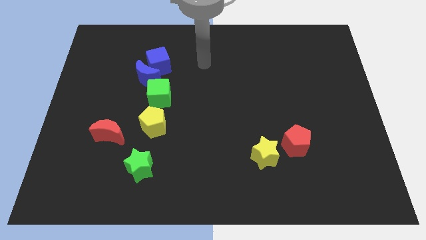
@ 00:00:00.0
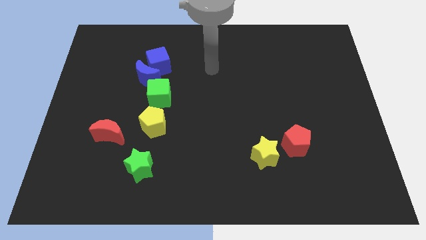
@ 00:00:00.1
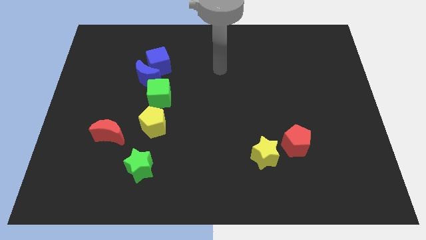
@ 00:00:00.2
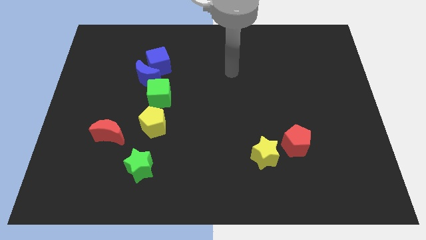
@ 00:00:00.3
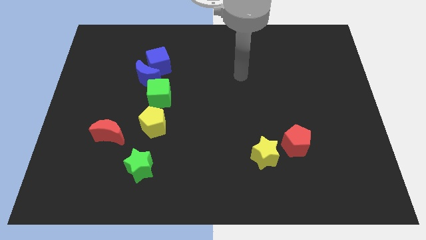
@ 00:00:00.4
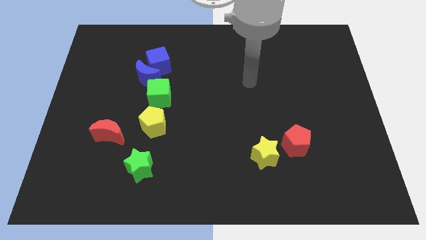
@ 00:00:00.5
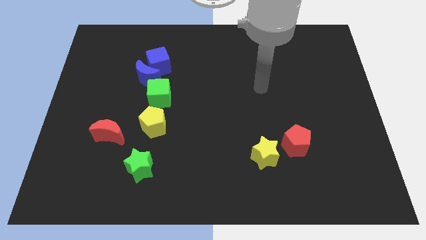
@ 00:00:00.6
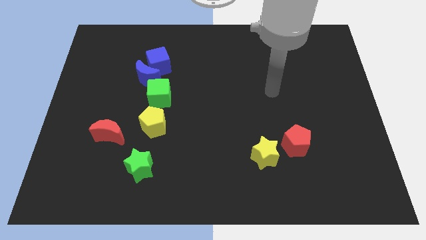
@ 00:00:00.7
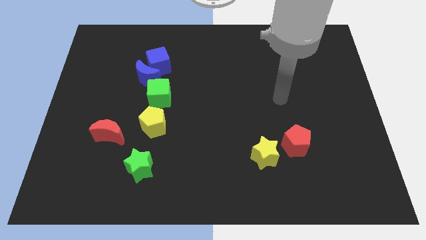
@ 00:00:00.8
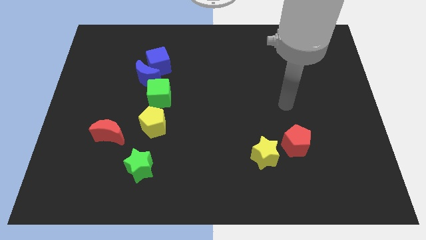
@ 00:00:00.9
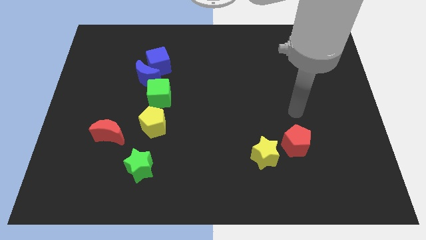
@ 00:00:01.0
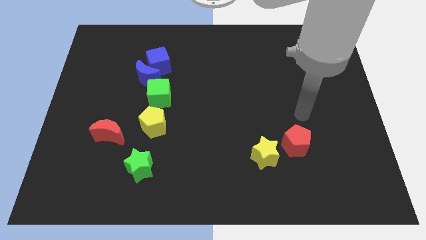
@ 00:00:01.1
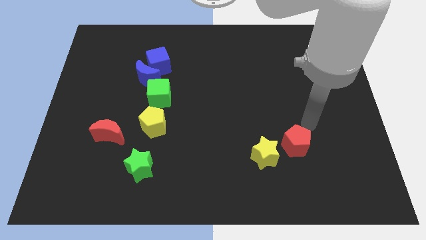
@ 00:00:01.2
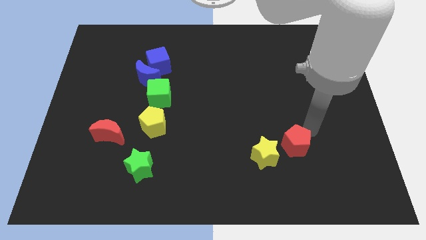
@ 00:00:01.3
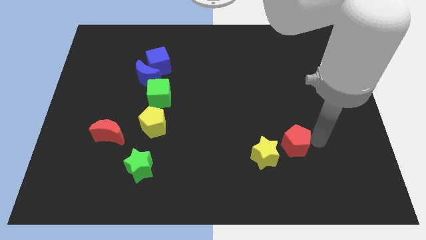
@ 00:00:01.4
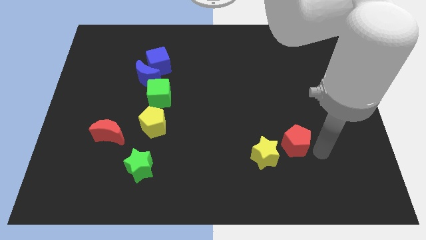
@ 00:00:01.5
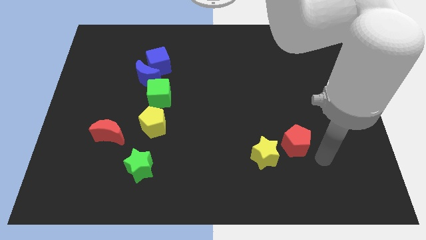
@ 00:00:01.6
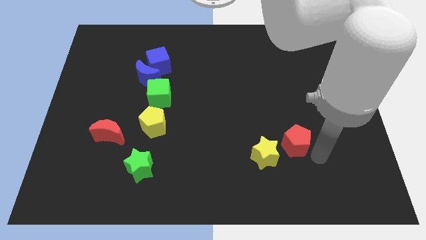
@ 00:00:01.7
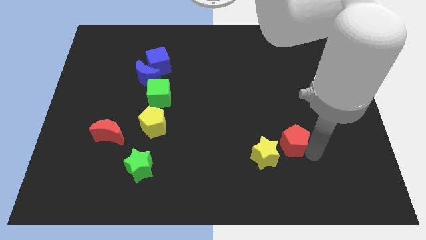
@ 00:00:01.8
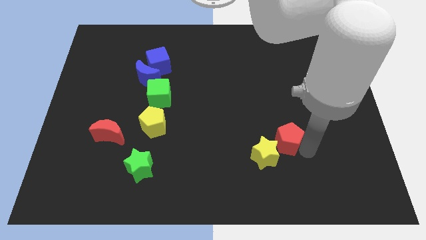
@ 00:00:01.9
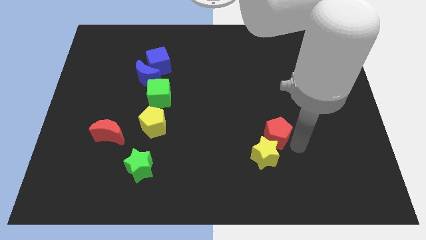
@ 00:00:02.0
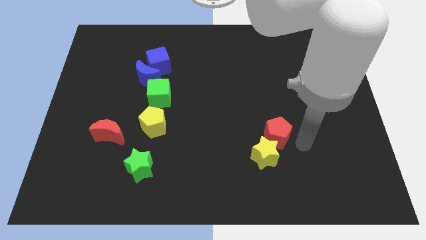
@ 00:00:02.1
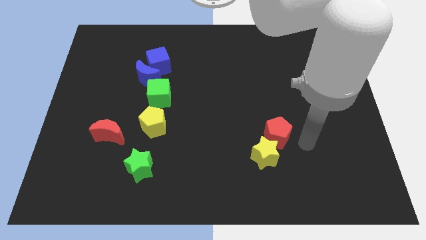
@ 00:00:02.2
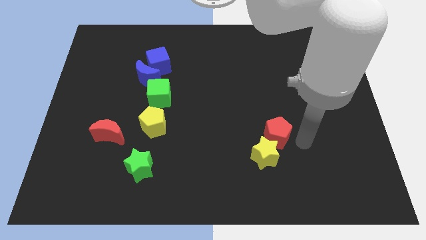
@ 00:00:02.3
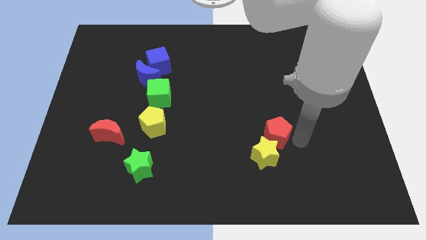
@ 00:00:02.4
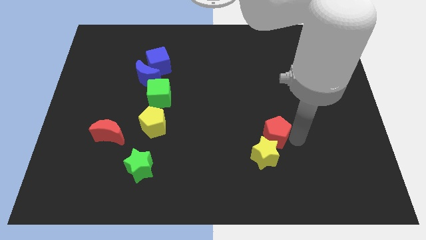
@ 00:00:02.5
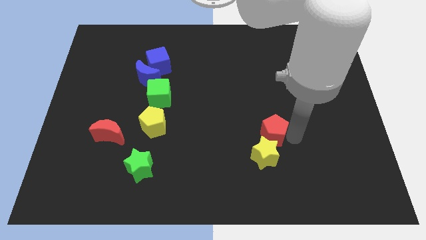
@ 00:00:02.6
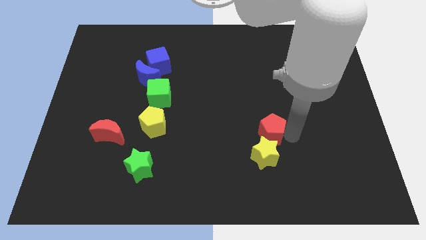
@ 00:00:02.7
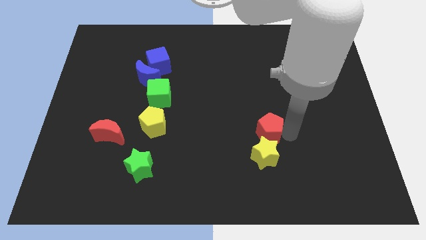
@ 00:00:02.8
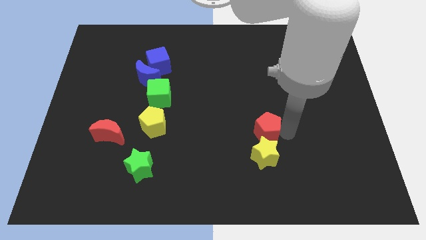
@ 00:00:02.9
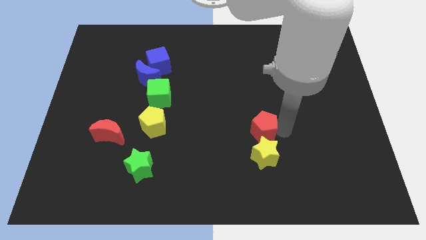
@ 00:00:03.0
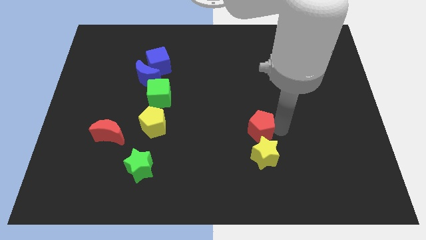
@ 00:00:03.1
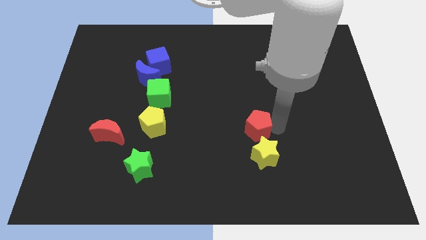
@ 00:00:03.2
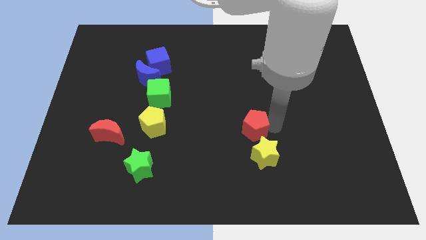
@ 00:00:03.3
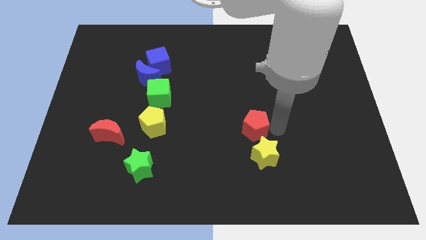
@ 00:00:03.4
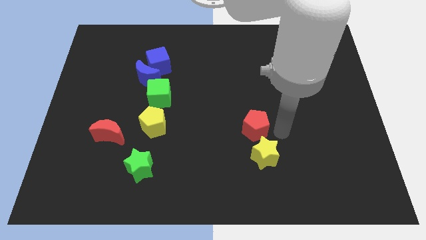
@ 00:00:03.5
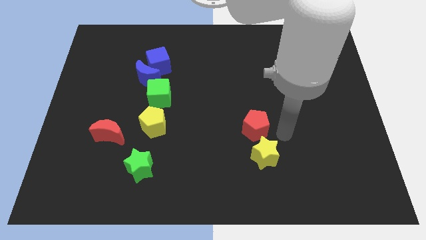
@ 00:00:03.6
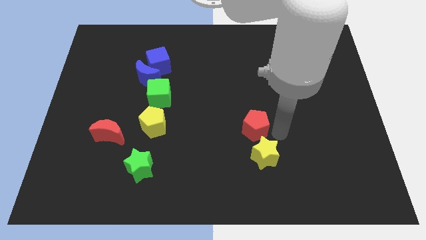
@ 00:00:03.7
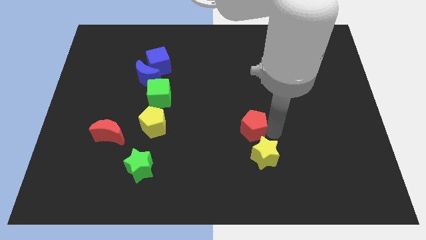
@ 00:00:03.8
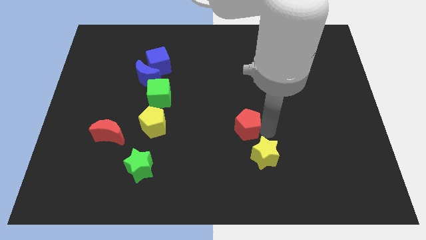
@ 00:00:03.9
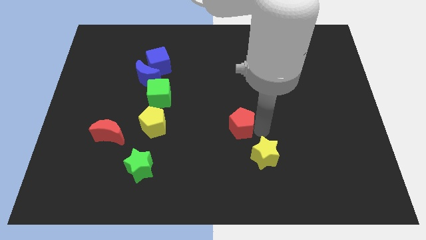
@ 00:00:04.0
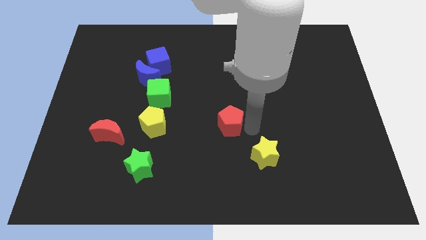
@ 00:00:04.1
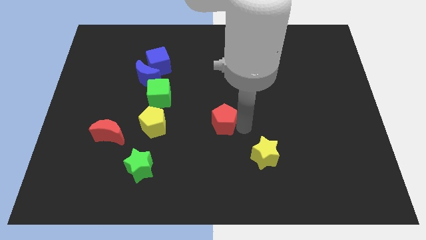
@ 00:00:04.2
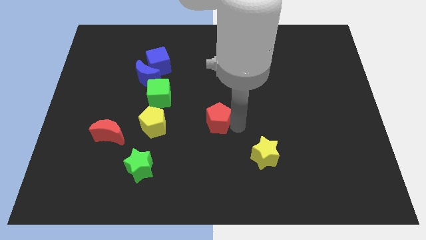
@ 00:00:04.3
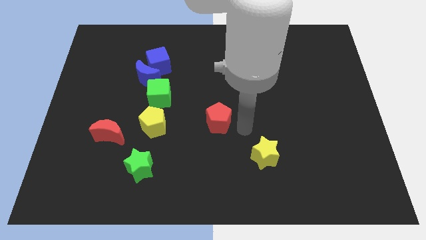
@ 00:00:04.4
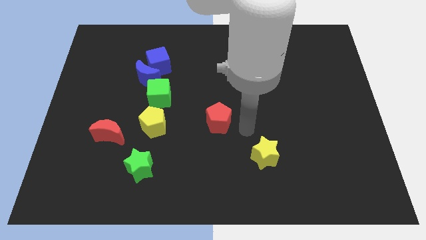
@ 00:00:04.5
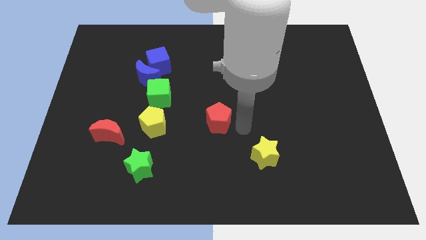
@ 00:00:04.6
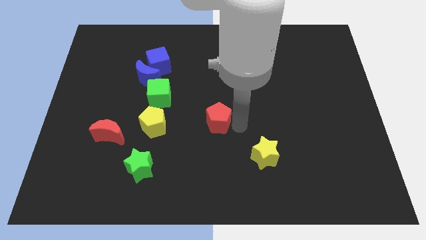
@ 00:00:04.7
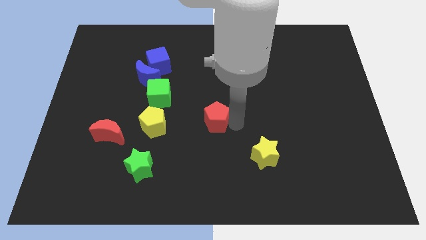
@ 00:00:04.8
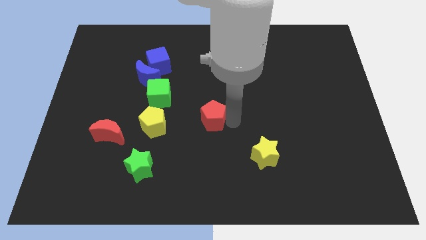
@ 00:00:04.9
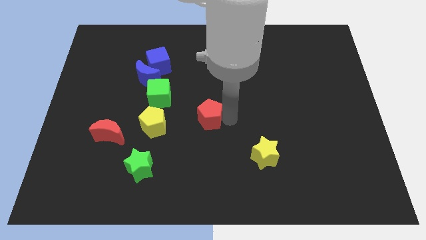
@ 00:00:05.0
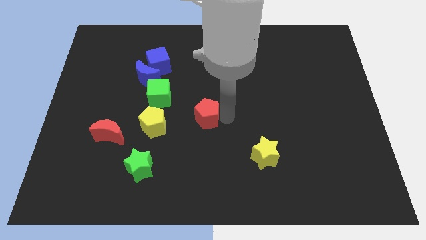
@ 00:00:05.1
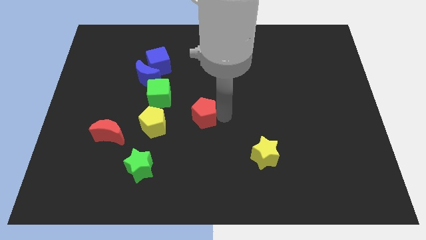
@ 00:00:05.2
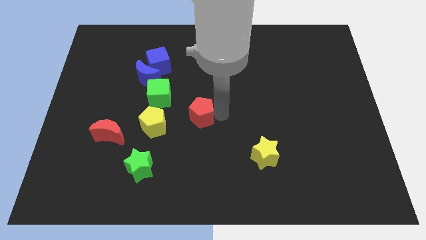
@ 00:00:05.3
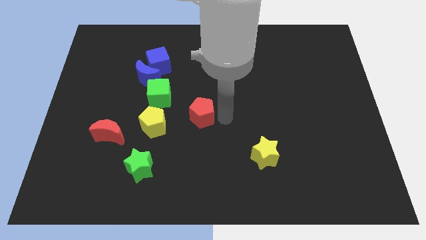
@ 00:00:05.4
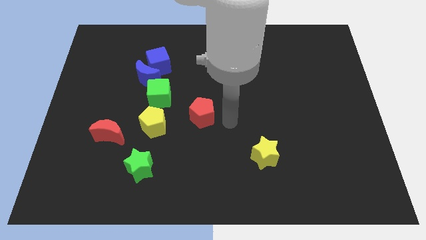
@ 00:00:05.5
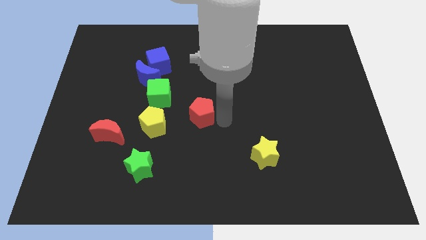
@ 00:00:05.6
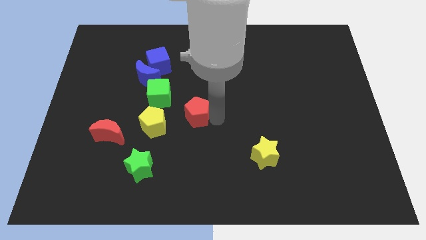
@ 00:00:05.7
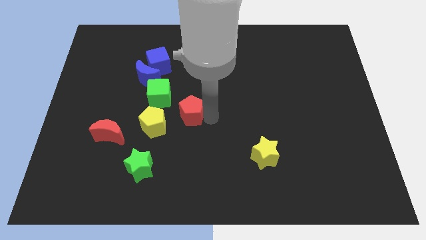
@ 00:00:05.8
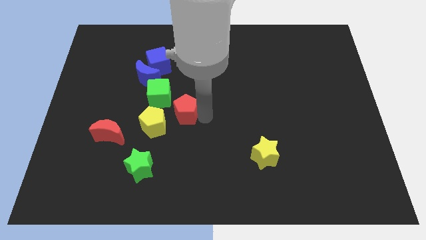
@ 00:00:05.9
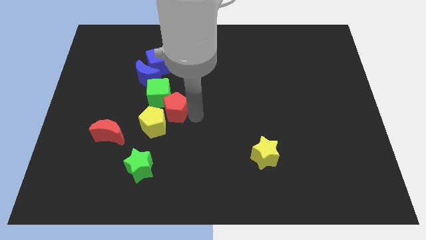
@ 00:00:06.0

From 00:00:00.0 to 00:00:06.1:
put the red pentagon to the green cube
